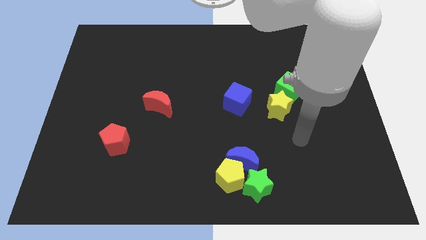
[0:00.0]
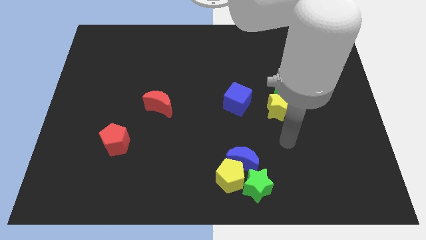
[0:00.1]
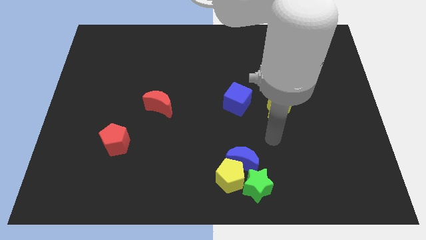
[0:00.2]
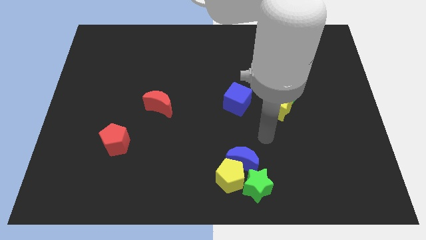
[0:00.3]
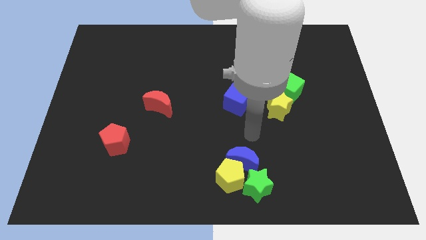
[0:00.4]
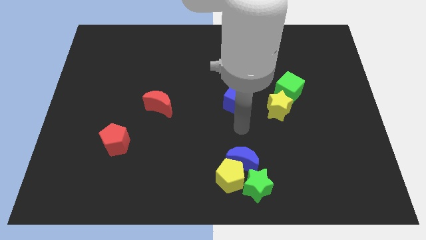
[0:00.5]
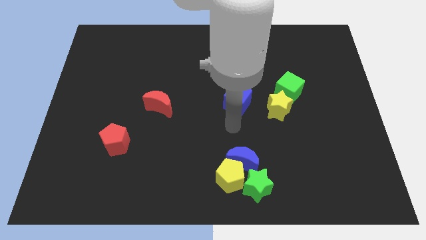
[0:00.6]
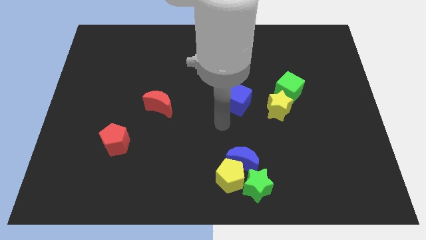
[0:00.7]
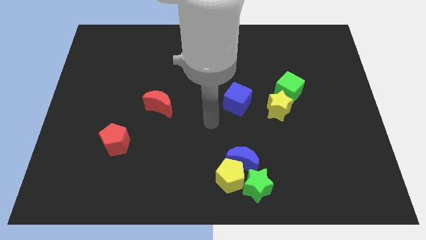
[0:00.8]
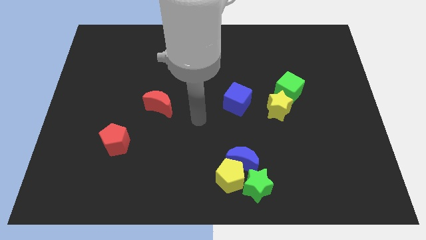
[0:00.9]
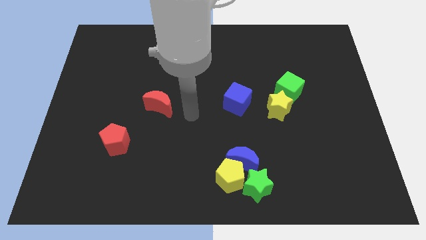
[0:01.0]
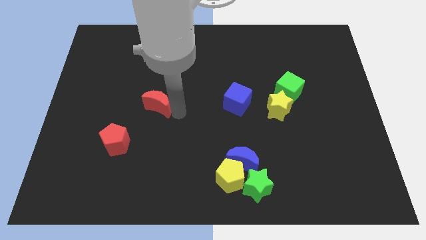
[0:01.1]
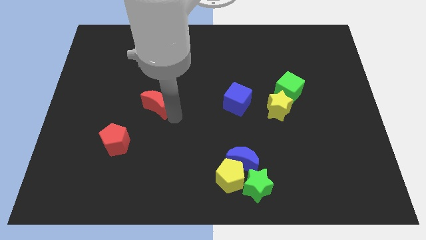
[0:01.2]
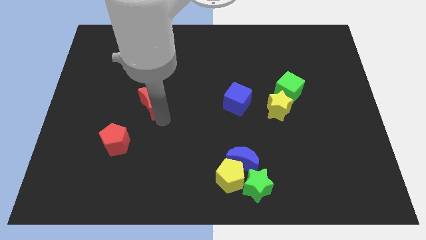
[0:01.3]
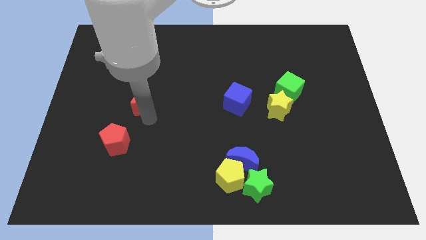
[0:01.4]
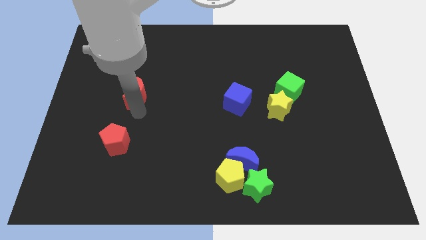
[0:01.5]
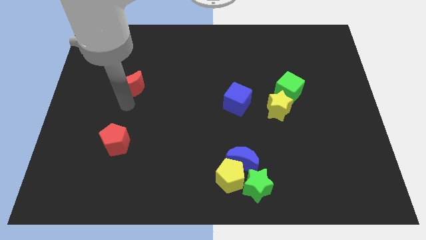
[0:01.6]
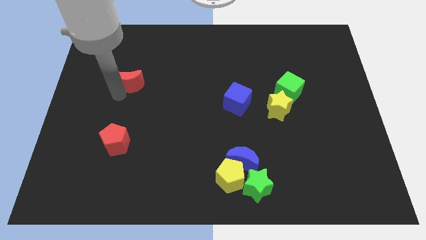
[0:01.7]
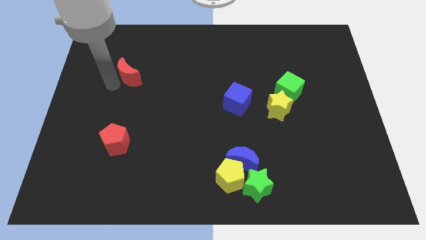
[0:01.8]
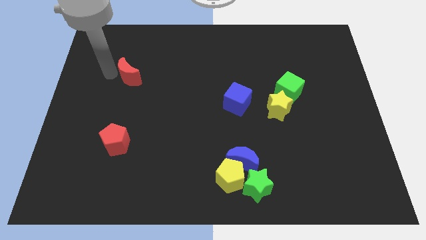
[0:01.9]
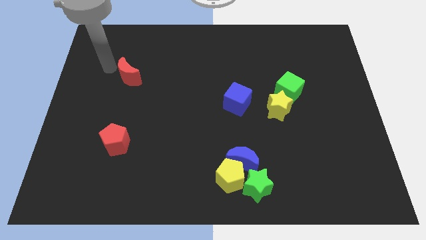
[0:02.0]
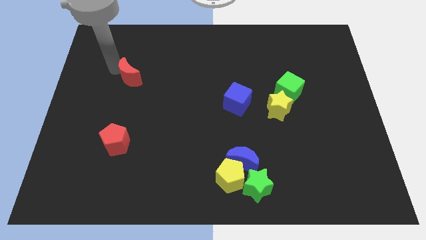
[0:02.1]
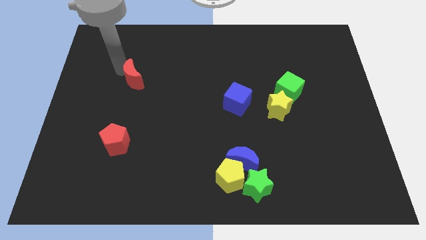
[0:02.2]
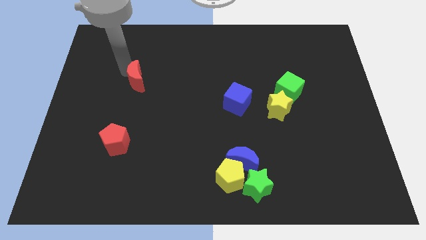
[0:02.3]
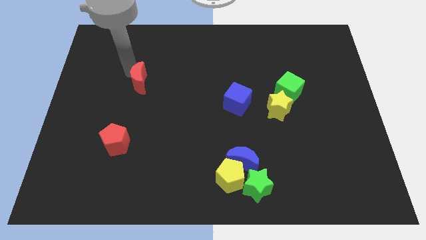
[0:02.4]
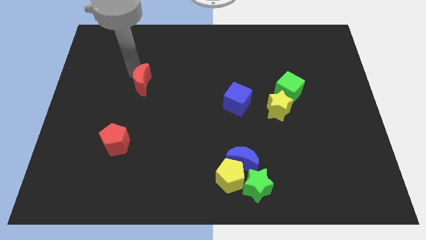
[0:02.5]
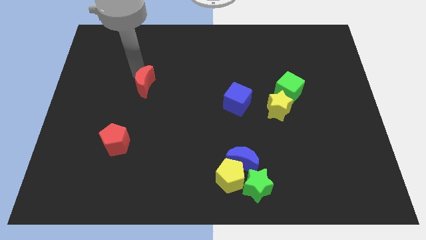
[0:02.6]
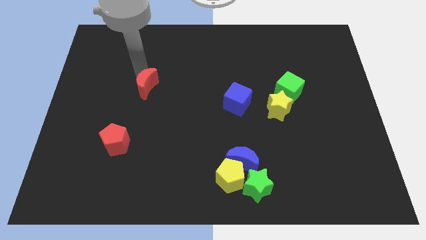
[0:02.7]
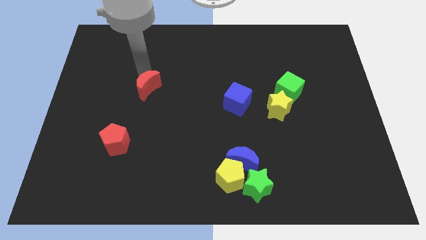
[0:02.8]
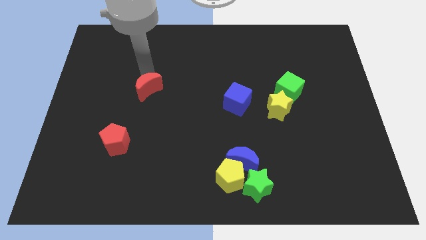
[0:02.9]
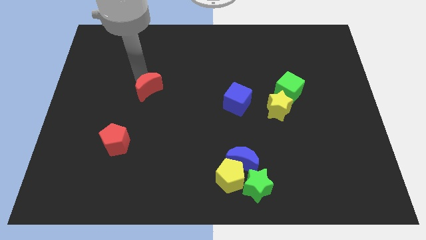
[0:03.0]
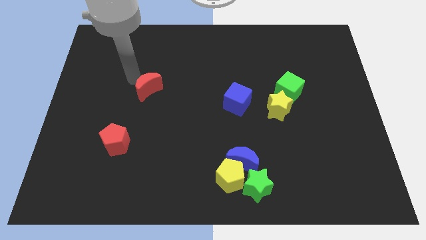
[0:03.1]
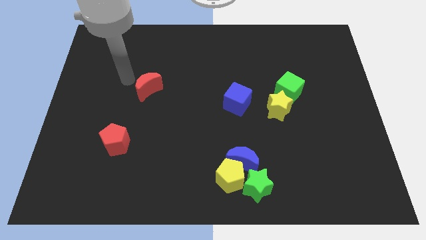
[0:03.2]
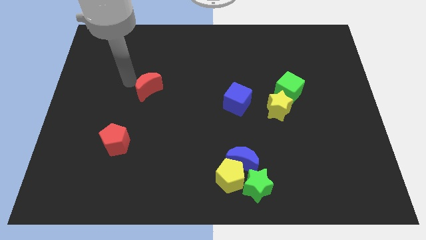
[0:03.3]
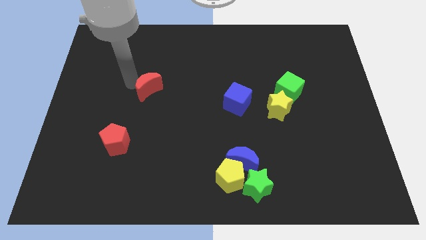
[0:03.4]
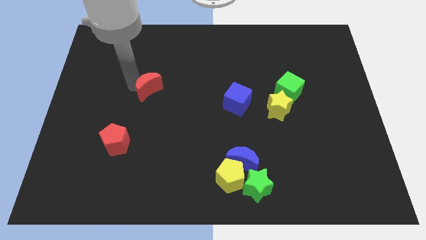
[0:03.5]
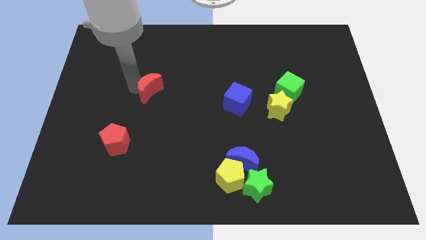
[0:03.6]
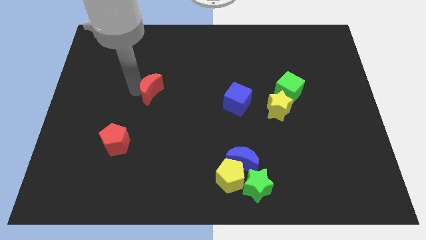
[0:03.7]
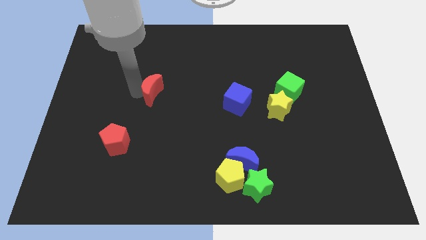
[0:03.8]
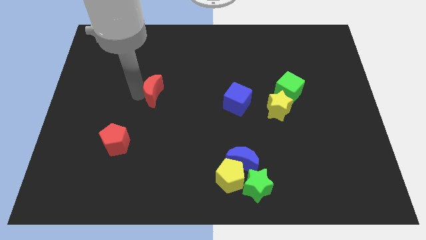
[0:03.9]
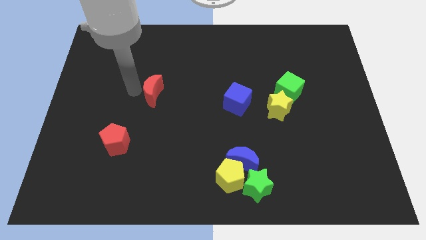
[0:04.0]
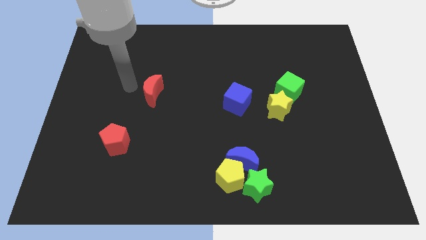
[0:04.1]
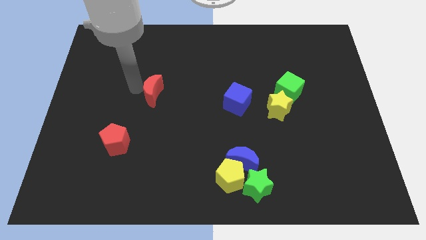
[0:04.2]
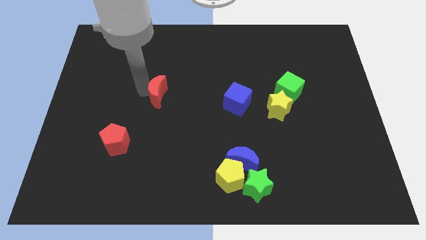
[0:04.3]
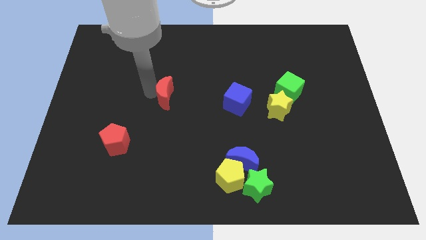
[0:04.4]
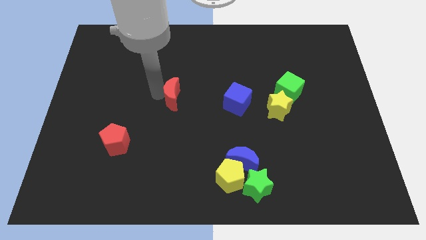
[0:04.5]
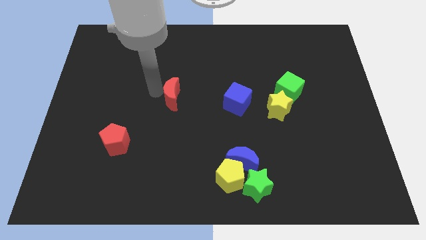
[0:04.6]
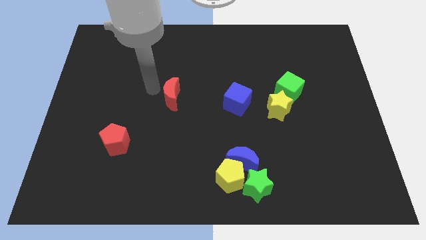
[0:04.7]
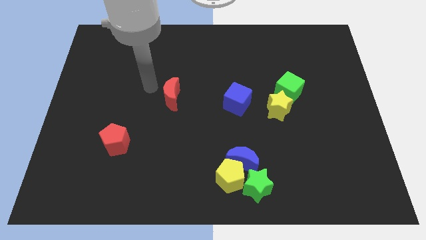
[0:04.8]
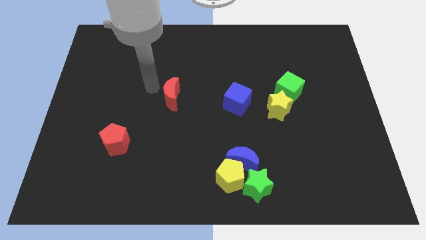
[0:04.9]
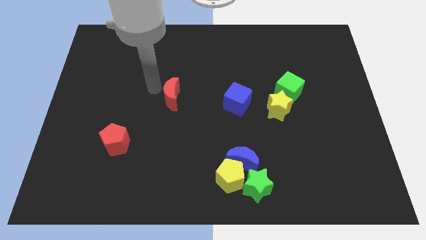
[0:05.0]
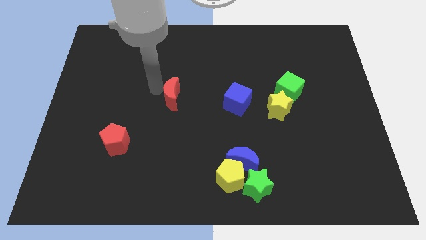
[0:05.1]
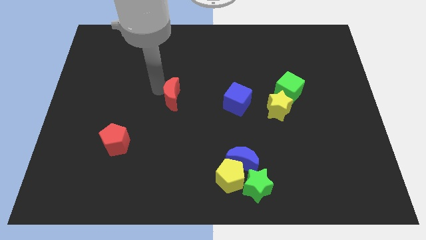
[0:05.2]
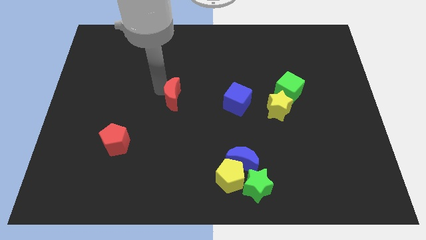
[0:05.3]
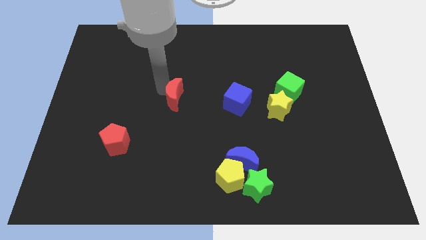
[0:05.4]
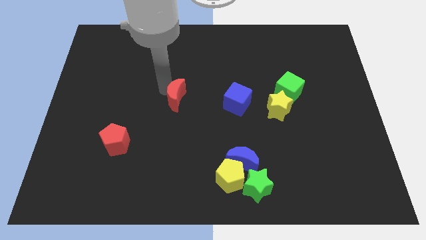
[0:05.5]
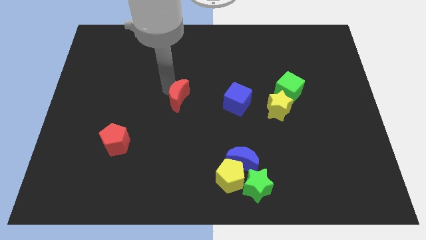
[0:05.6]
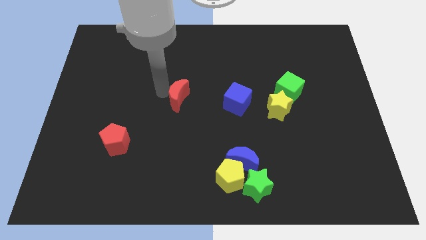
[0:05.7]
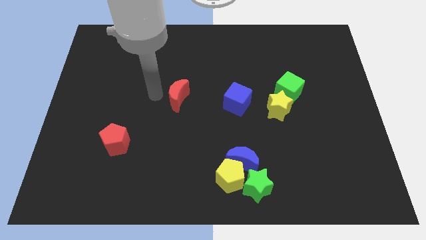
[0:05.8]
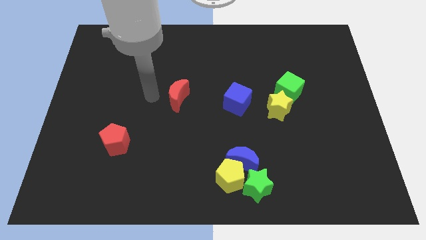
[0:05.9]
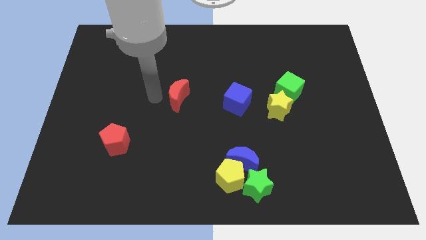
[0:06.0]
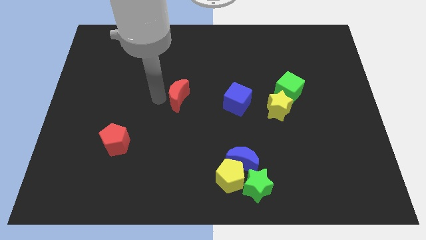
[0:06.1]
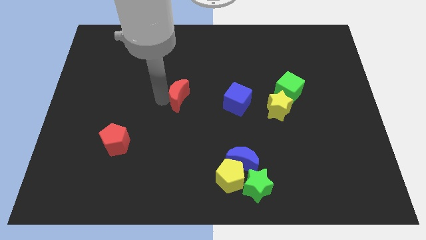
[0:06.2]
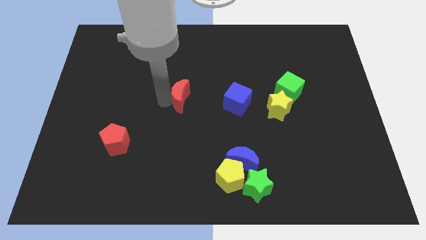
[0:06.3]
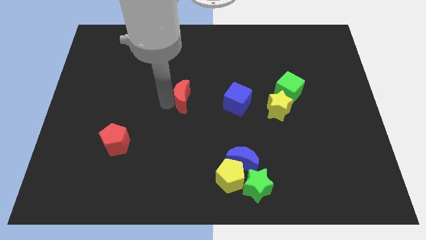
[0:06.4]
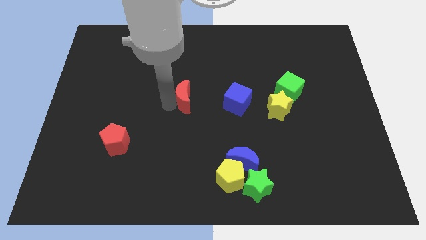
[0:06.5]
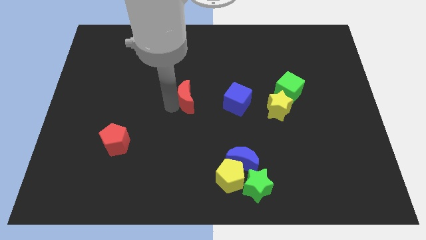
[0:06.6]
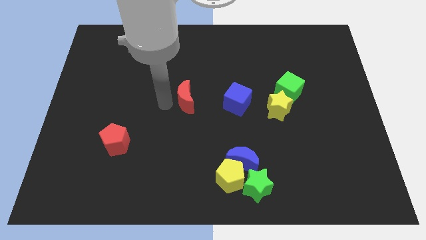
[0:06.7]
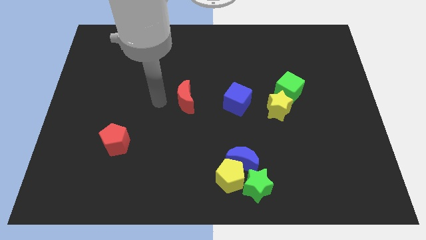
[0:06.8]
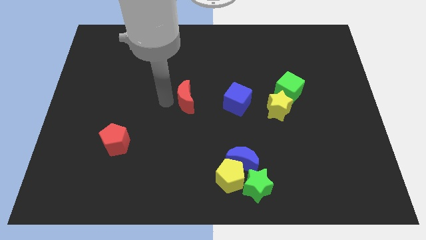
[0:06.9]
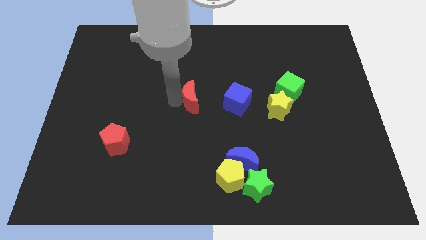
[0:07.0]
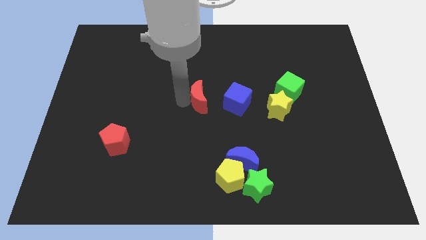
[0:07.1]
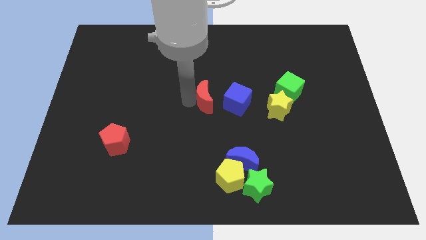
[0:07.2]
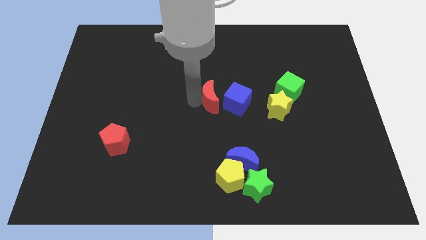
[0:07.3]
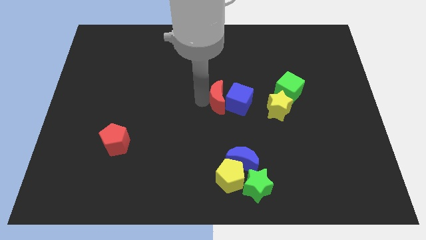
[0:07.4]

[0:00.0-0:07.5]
put the red moon next to the blue cube
